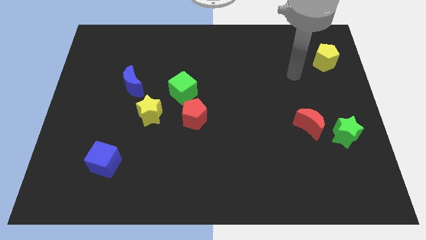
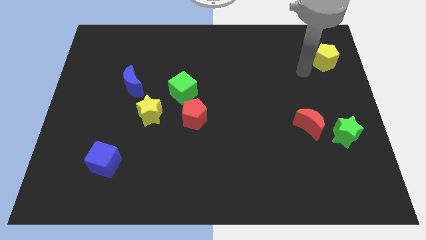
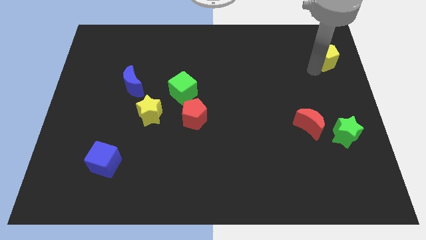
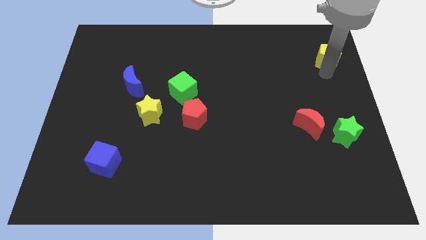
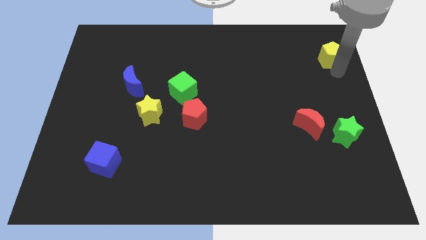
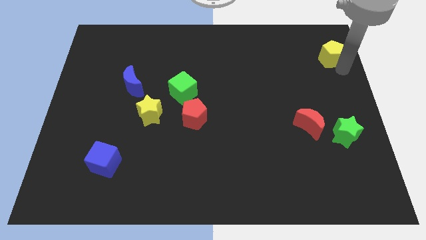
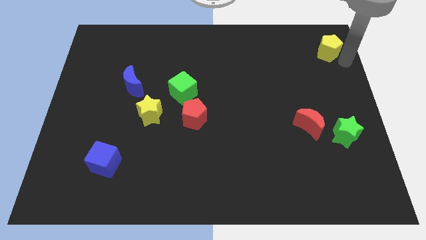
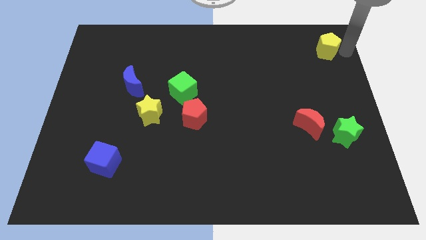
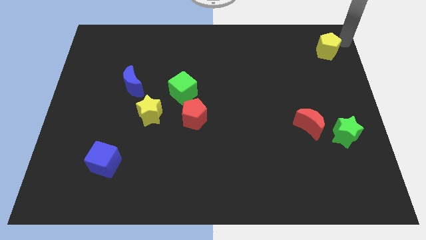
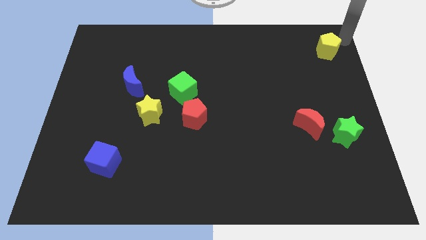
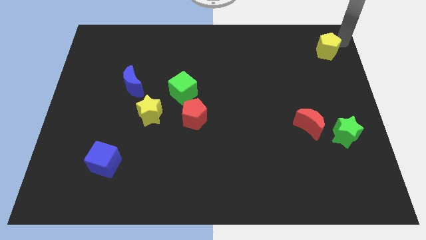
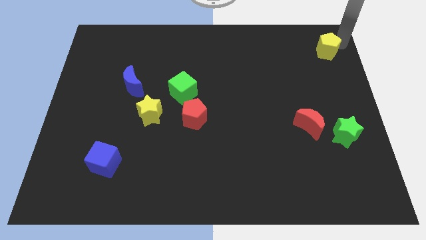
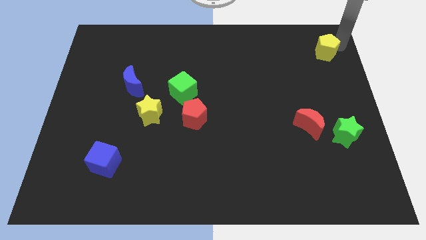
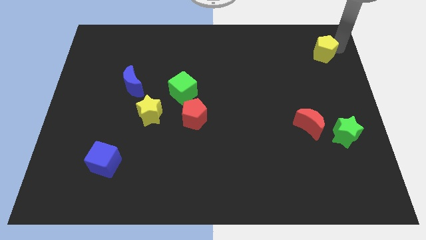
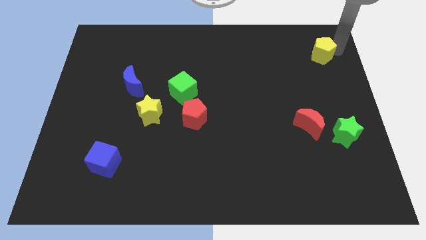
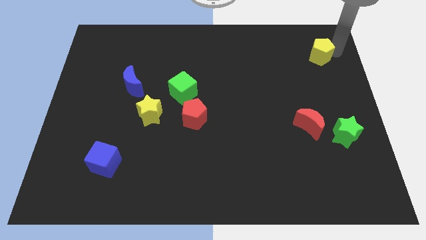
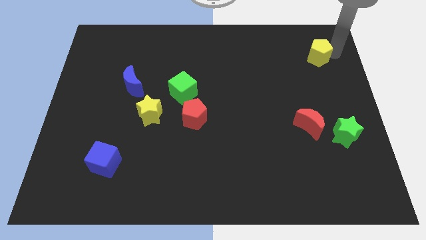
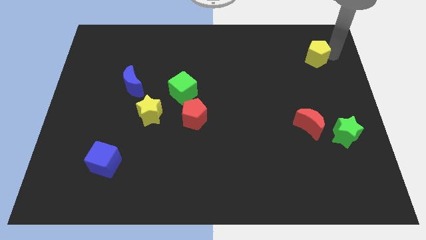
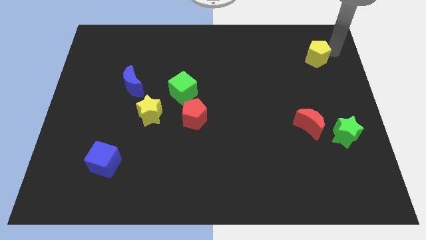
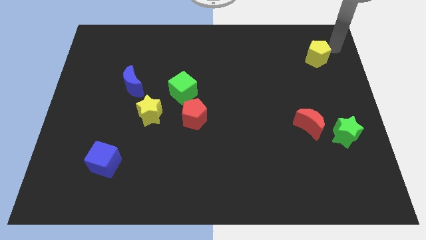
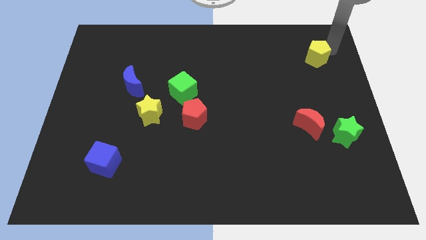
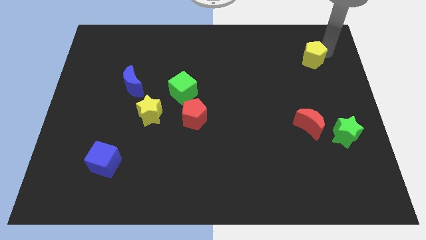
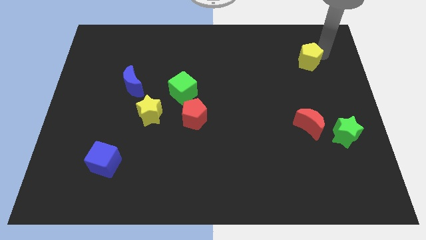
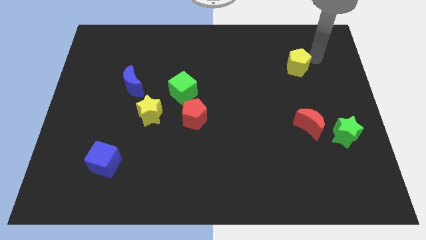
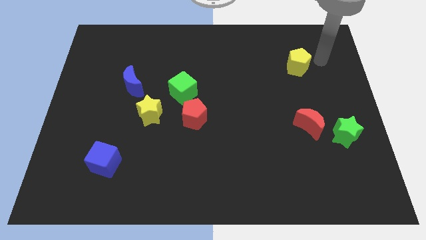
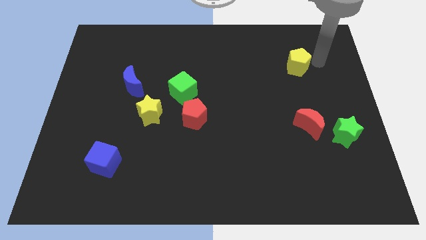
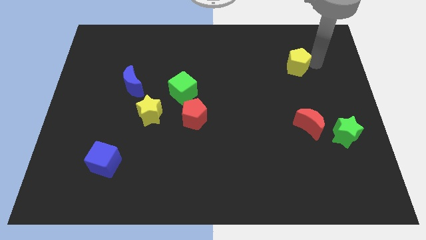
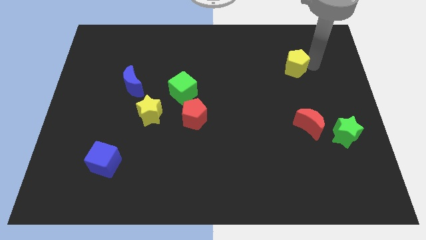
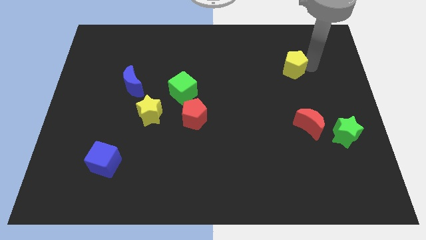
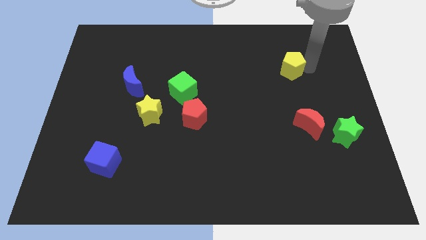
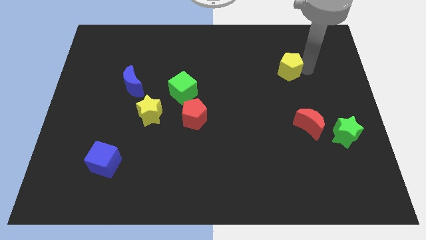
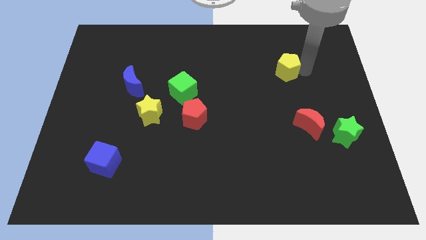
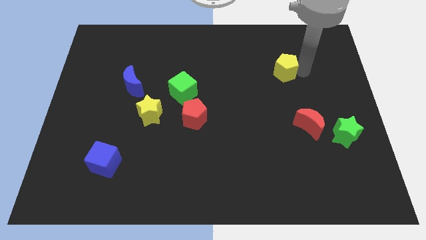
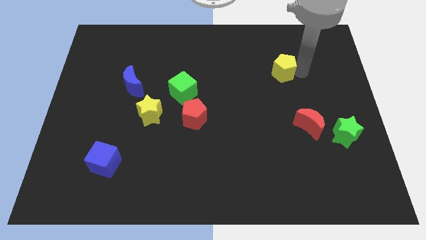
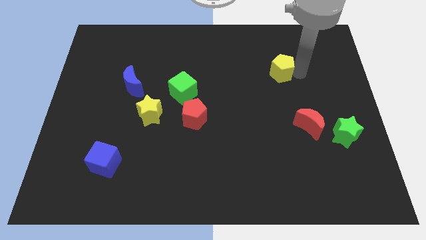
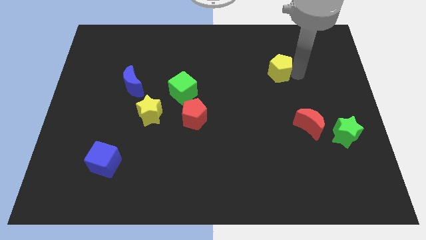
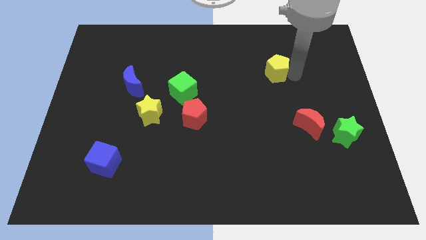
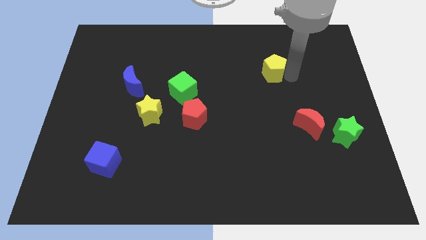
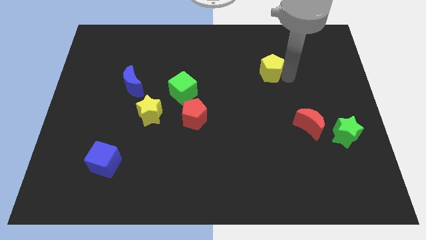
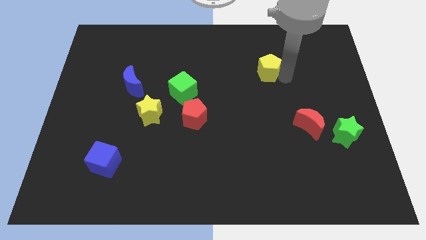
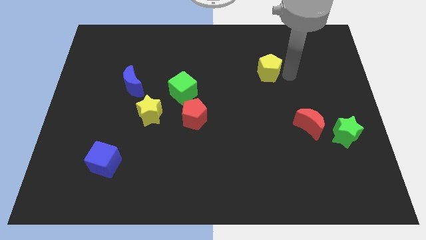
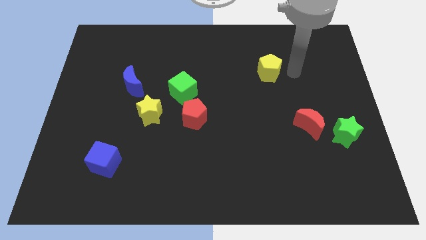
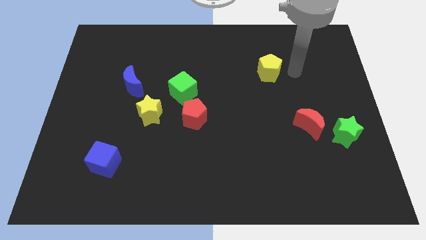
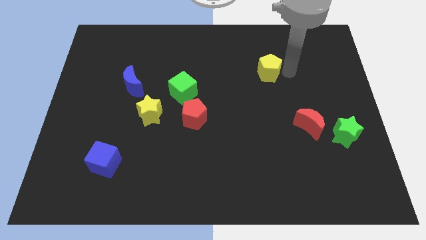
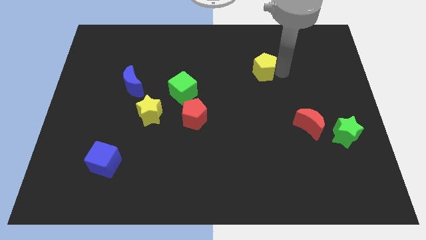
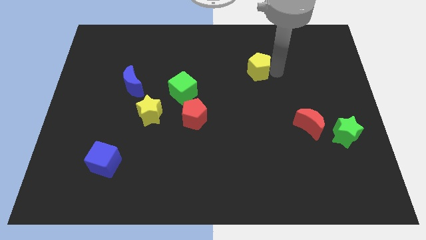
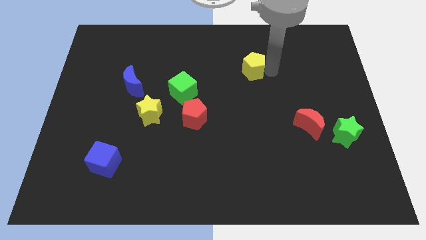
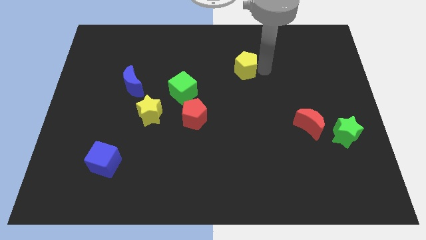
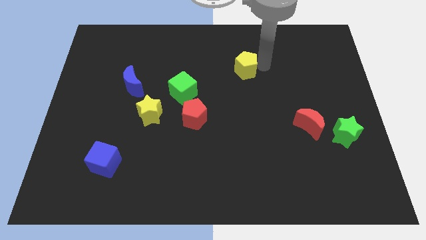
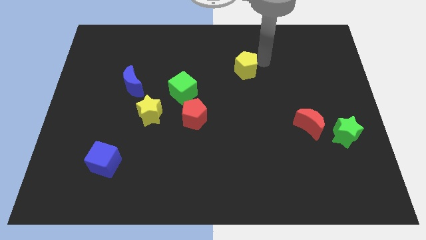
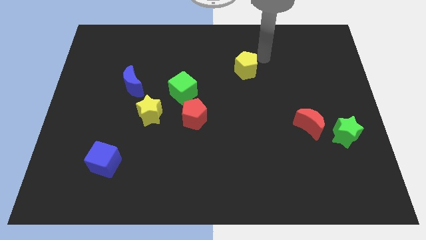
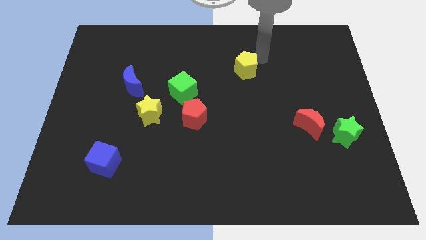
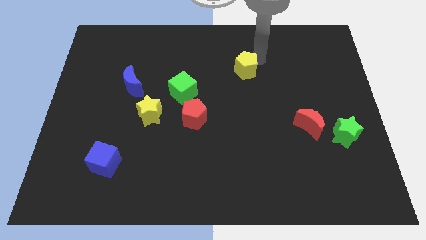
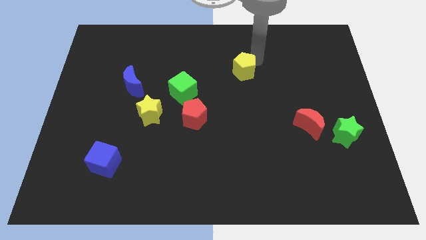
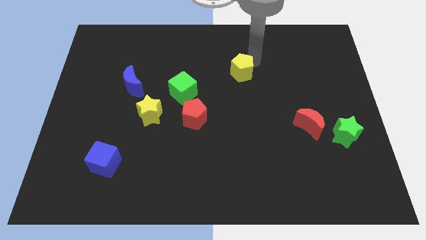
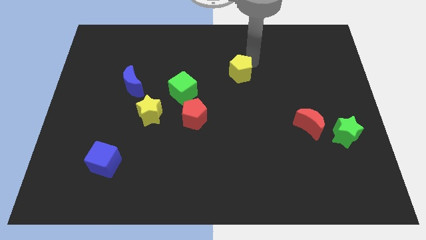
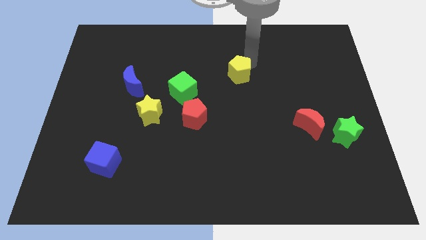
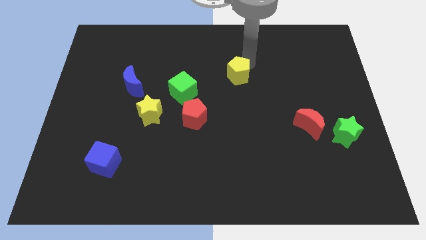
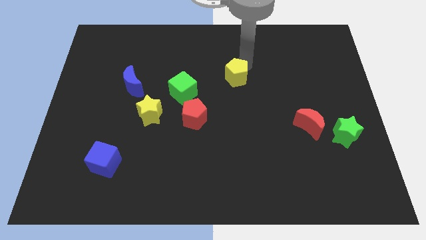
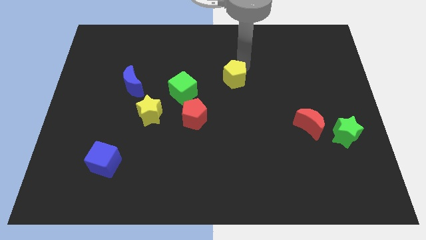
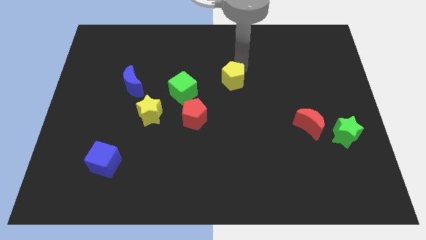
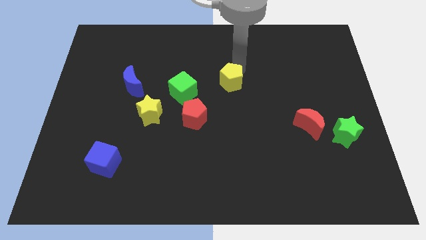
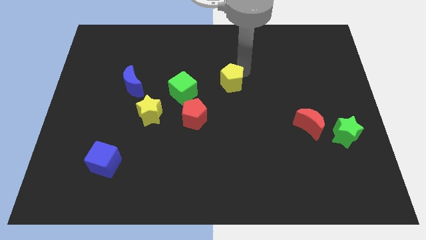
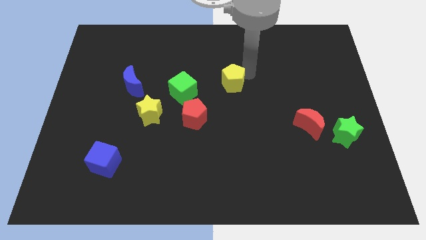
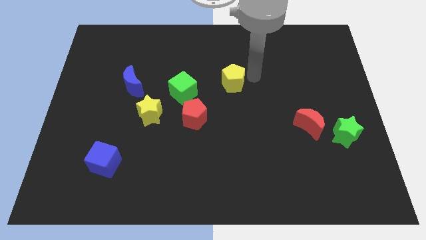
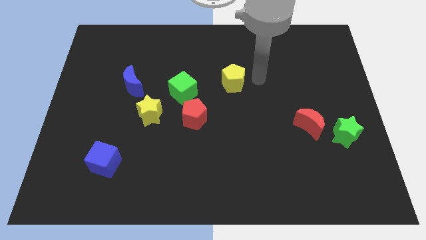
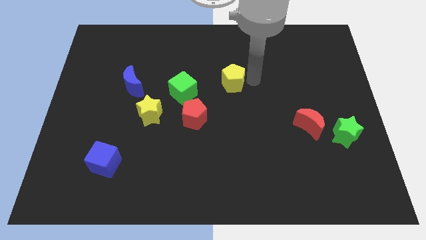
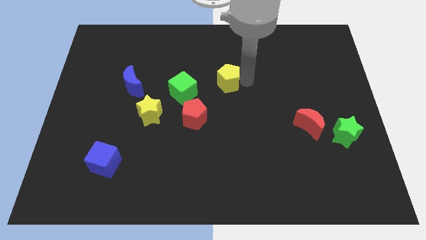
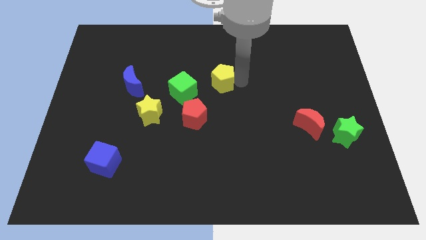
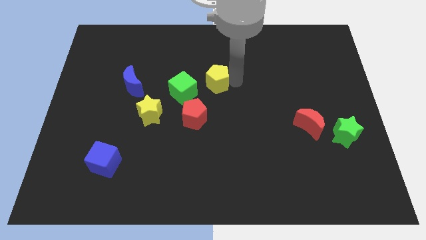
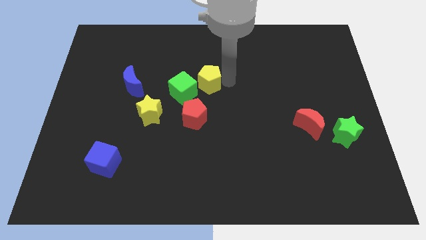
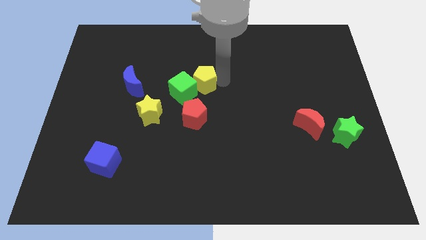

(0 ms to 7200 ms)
put the yellow pentagon towards the green cube

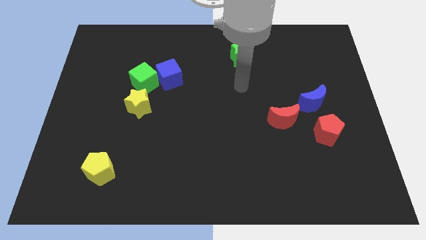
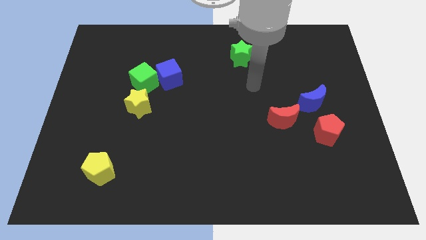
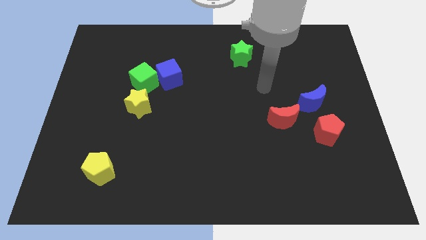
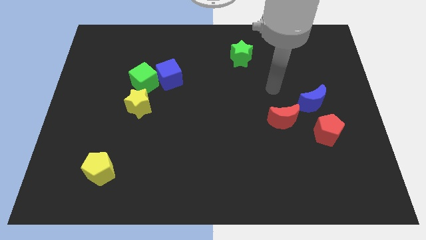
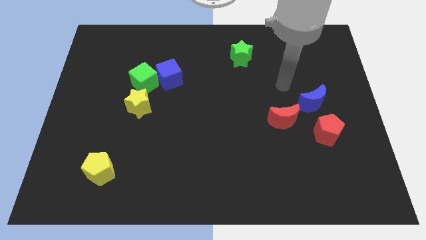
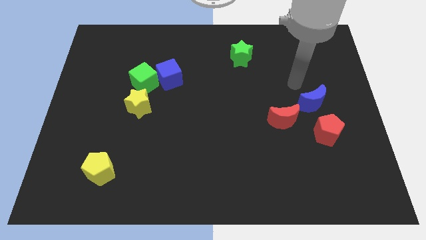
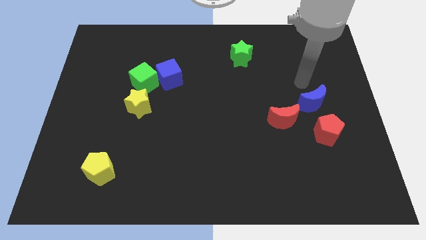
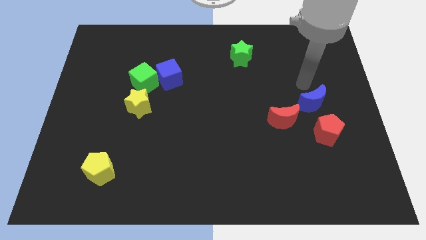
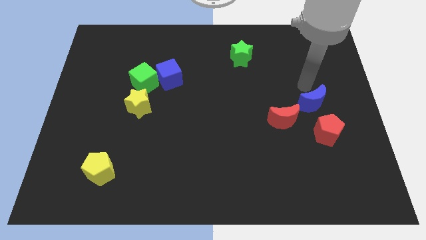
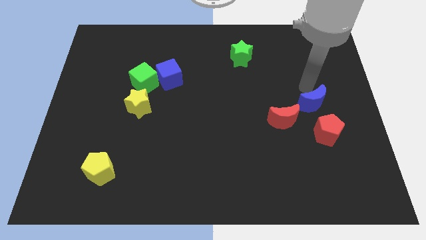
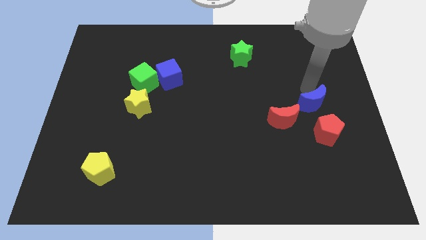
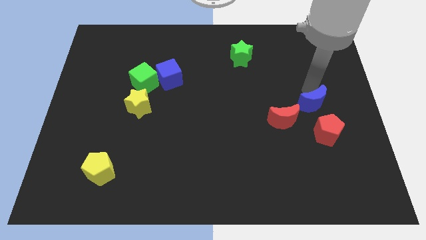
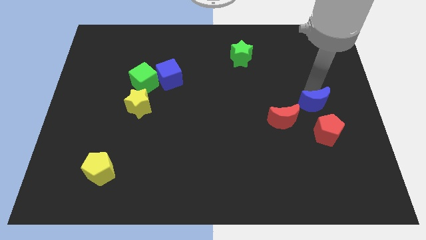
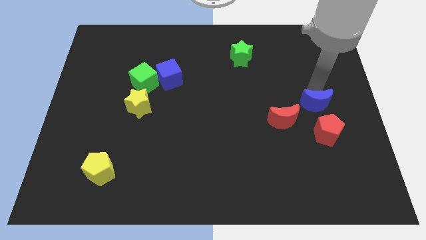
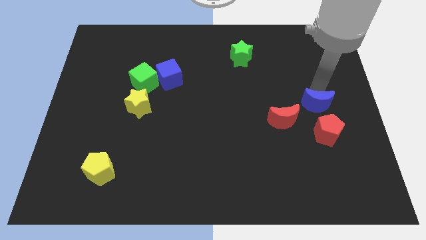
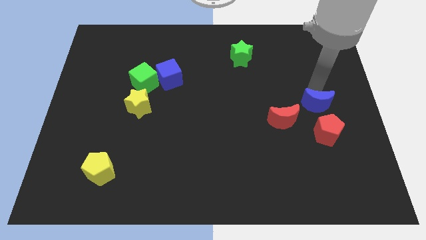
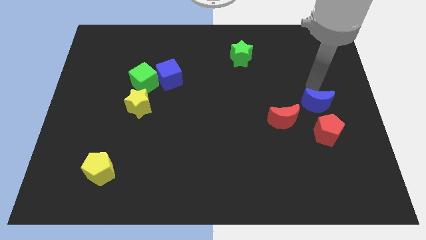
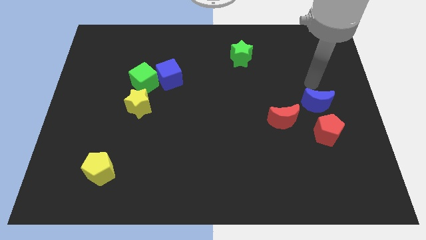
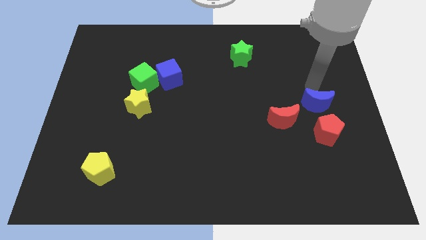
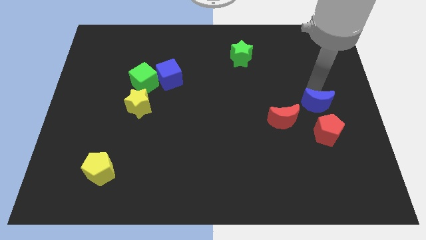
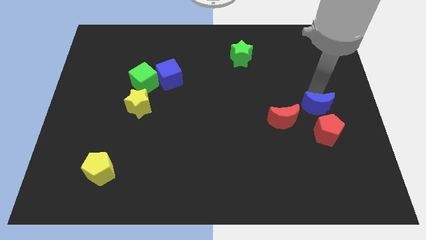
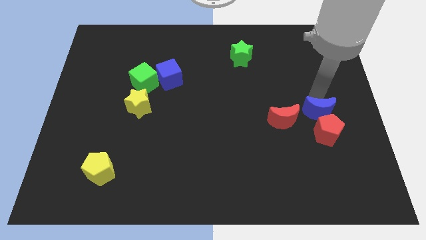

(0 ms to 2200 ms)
move the blue moon towards the red pentagon
